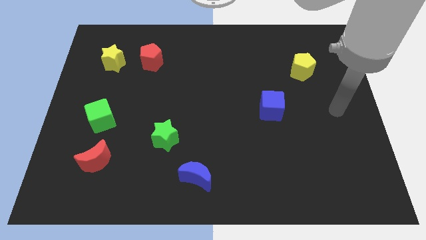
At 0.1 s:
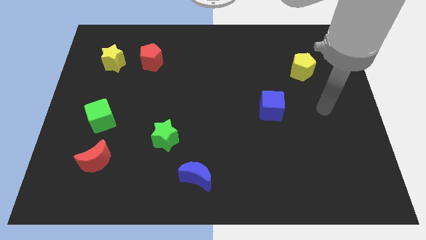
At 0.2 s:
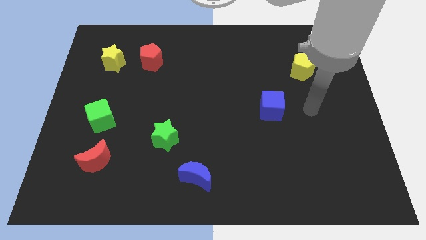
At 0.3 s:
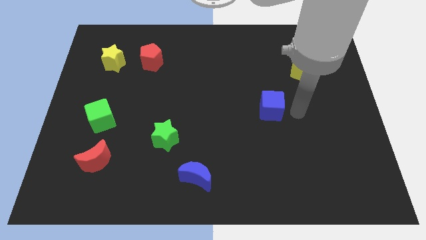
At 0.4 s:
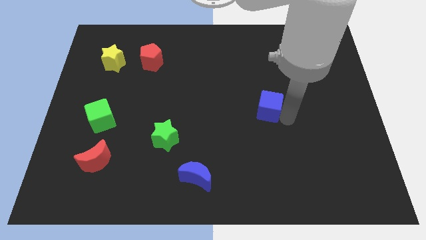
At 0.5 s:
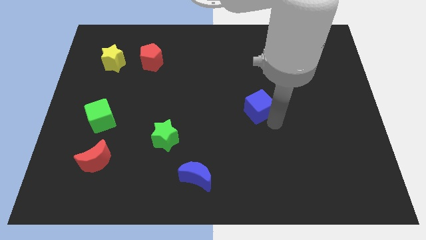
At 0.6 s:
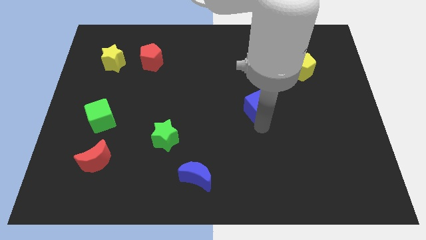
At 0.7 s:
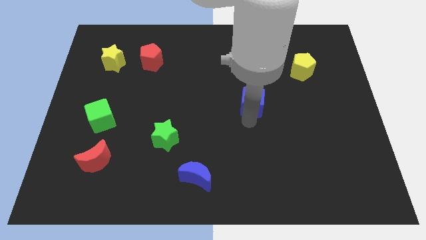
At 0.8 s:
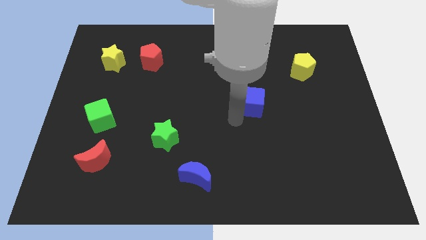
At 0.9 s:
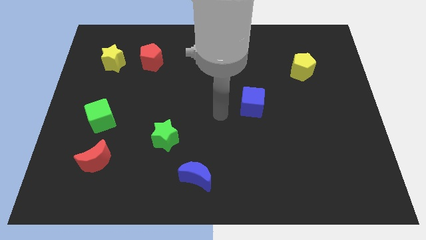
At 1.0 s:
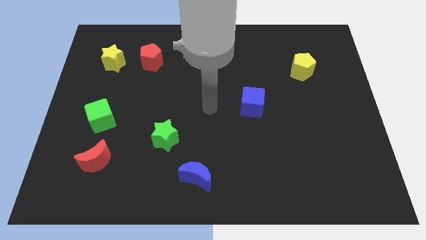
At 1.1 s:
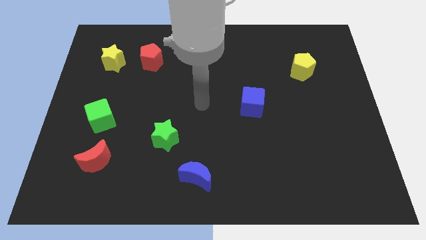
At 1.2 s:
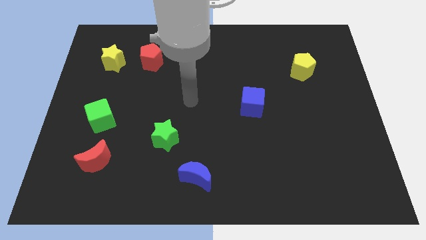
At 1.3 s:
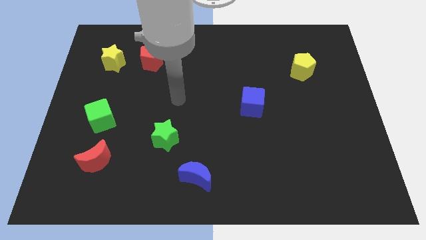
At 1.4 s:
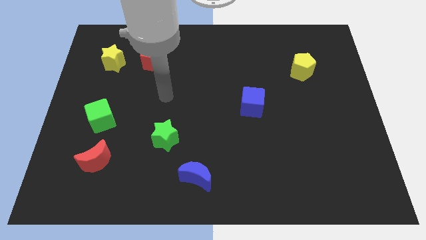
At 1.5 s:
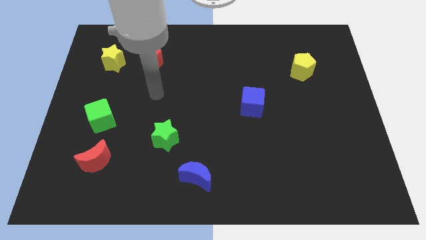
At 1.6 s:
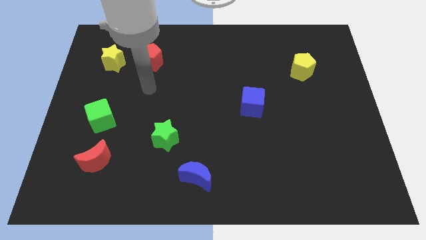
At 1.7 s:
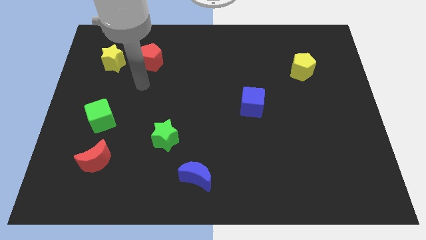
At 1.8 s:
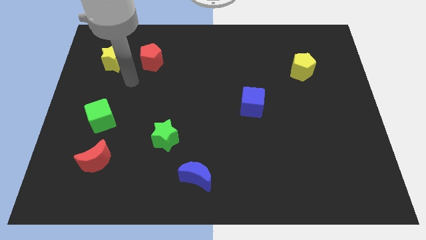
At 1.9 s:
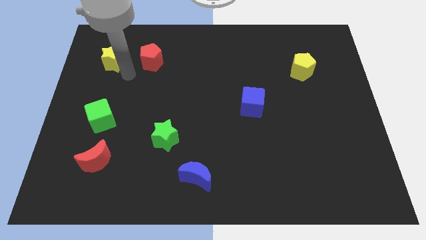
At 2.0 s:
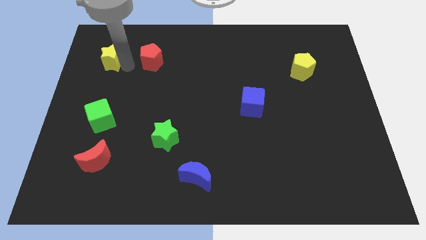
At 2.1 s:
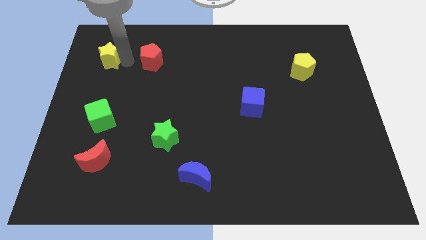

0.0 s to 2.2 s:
pull the red pentagon apart from the yellow star

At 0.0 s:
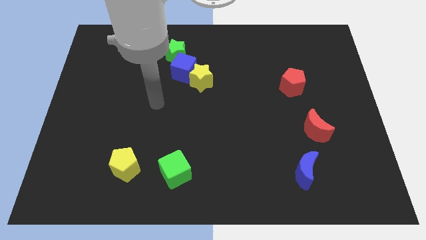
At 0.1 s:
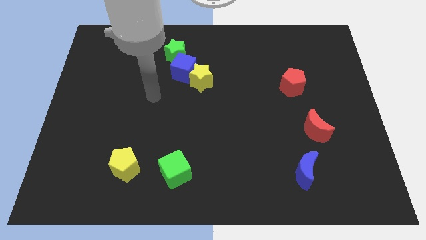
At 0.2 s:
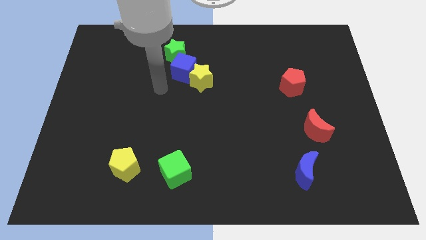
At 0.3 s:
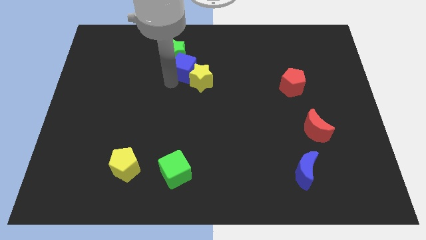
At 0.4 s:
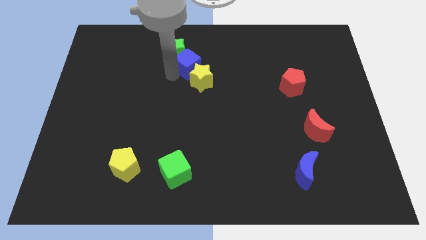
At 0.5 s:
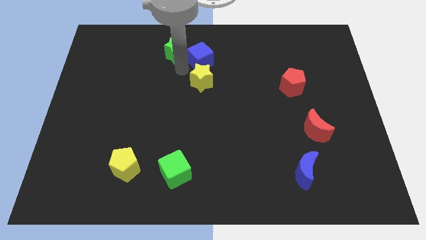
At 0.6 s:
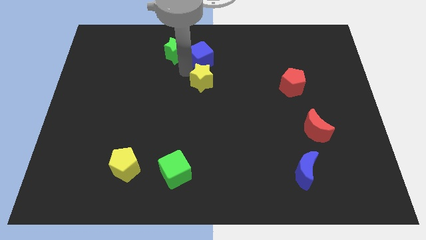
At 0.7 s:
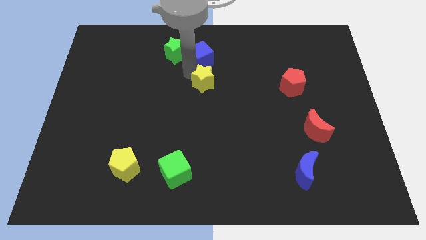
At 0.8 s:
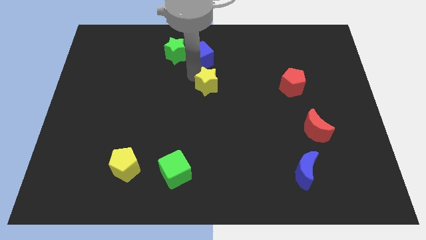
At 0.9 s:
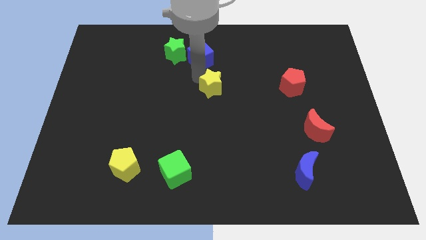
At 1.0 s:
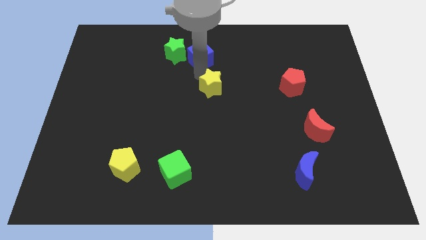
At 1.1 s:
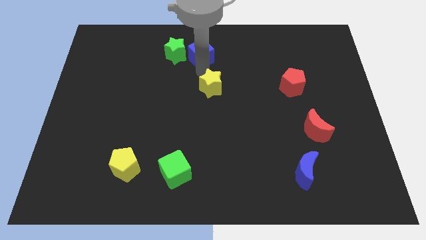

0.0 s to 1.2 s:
pull the yellow star apart from the blue cube

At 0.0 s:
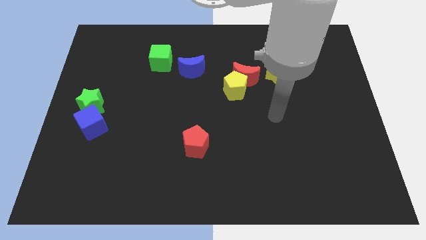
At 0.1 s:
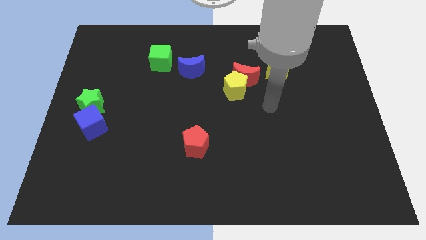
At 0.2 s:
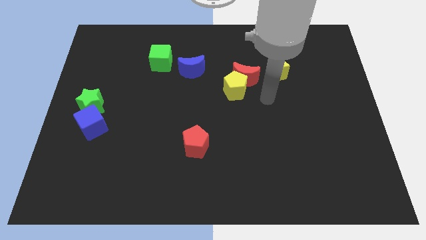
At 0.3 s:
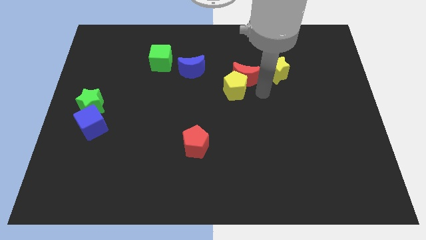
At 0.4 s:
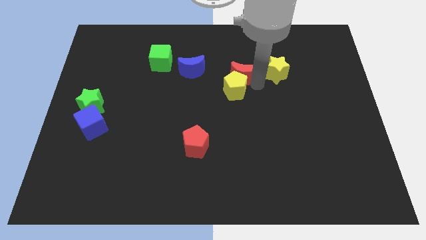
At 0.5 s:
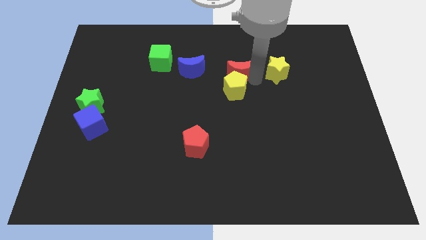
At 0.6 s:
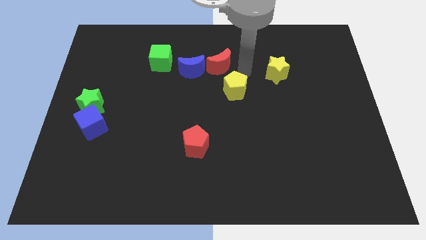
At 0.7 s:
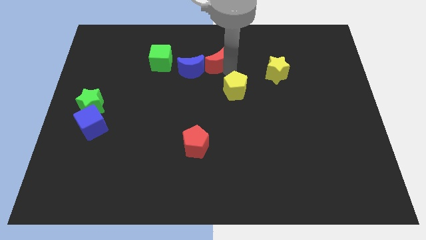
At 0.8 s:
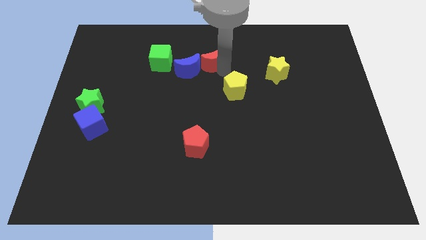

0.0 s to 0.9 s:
move the yellow pentagon away from the red moon

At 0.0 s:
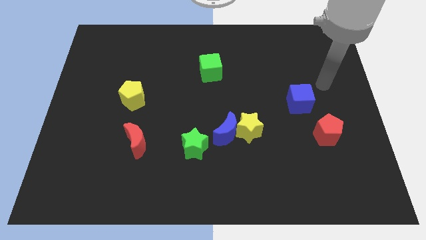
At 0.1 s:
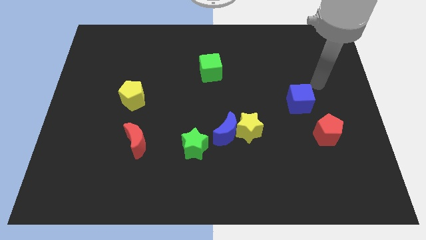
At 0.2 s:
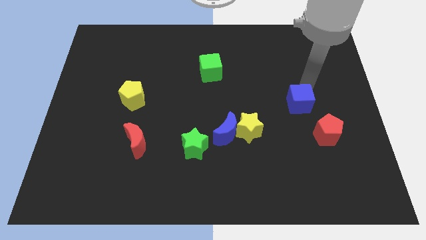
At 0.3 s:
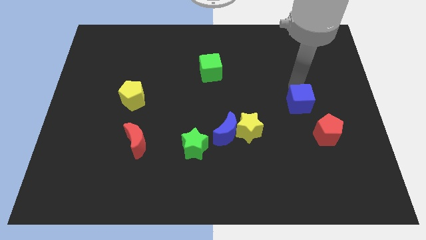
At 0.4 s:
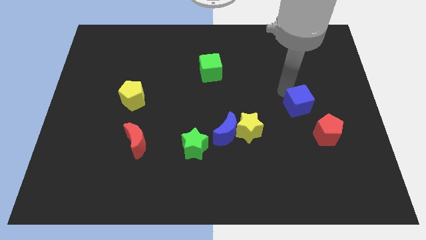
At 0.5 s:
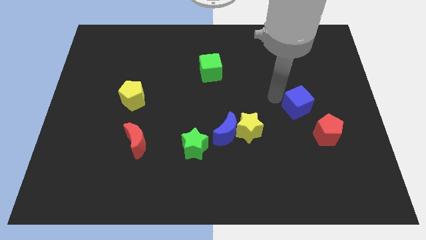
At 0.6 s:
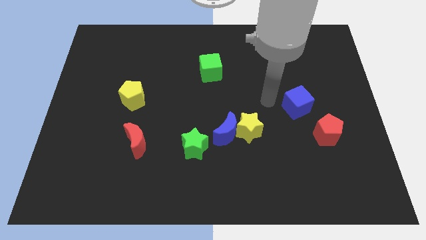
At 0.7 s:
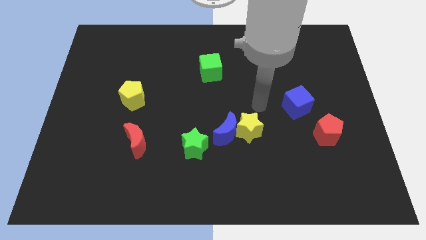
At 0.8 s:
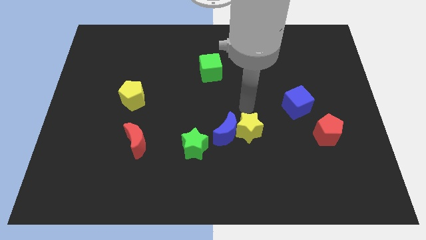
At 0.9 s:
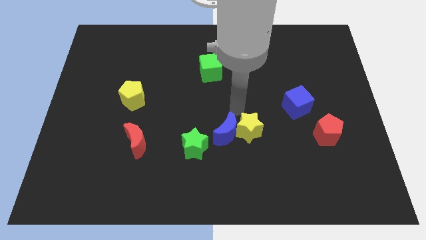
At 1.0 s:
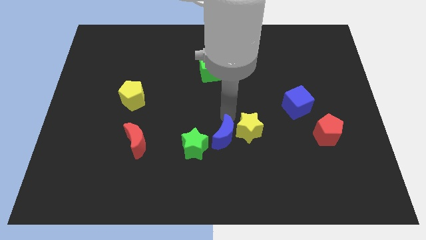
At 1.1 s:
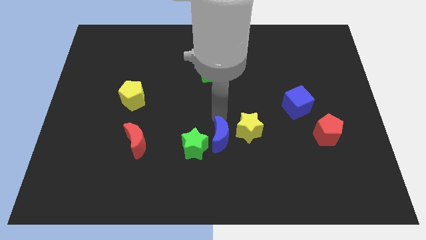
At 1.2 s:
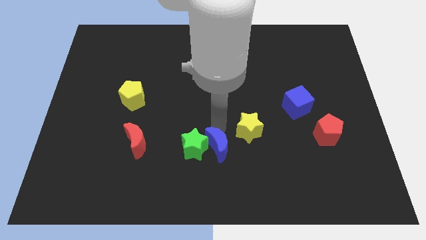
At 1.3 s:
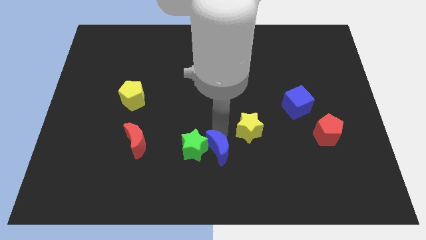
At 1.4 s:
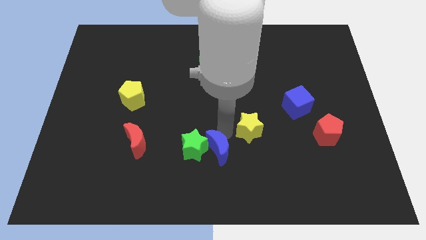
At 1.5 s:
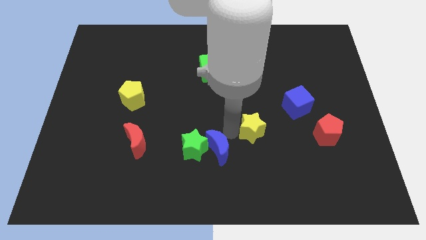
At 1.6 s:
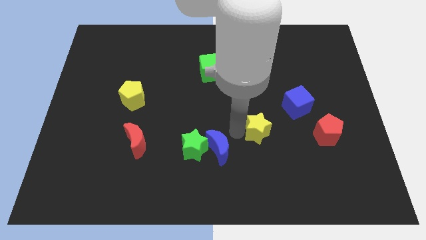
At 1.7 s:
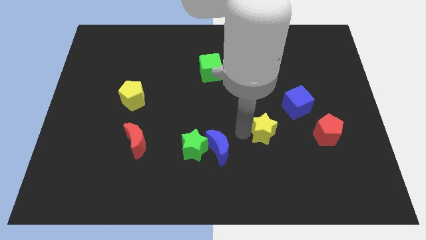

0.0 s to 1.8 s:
move the yellow star away from the blue moon

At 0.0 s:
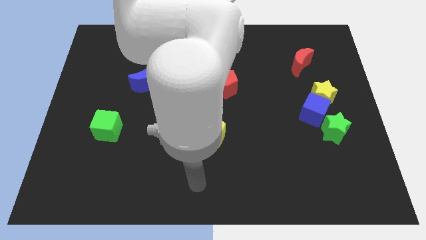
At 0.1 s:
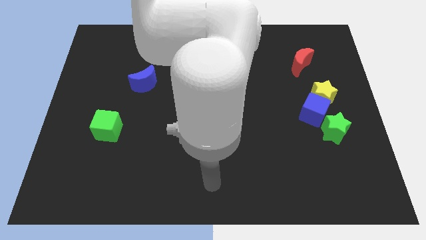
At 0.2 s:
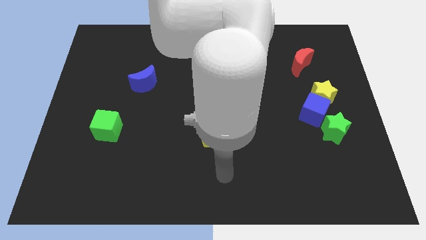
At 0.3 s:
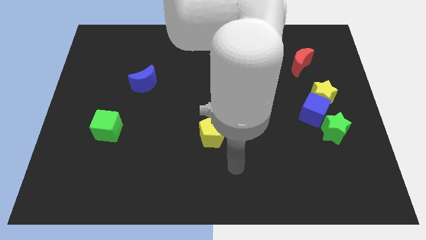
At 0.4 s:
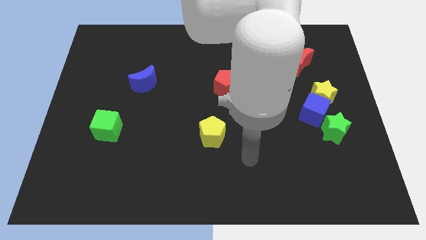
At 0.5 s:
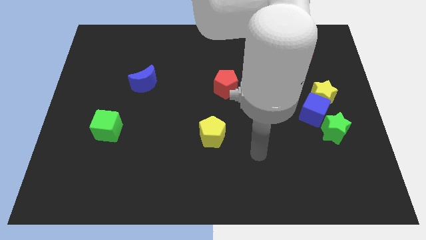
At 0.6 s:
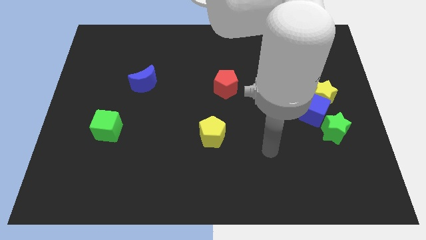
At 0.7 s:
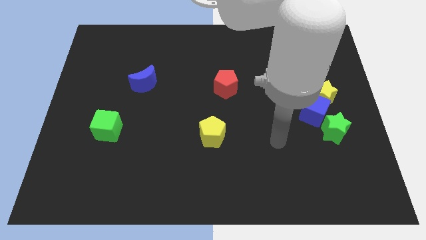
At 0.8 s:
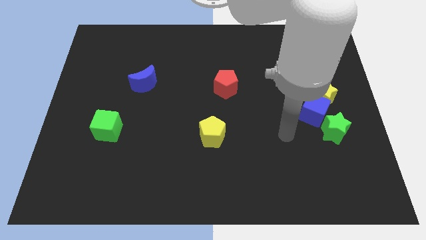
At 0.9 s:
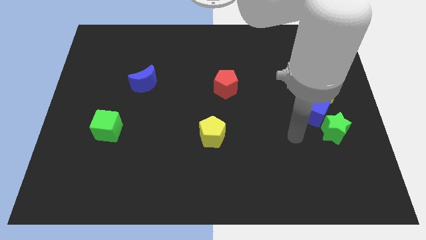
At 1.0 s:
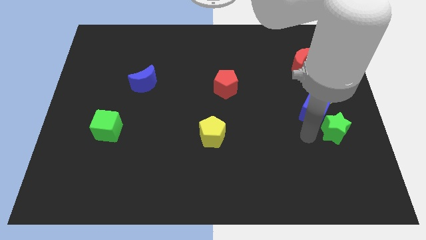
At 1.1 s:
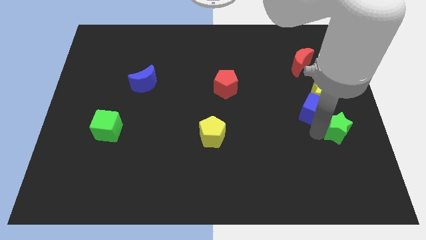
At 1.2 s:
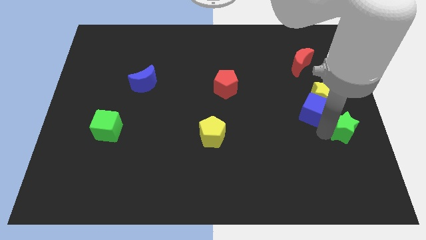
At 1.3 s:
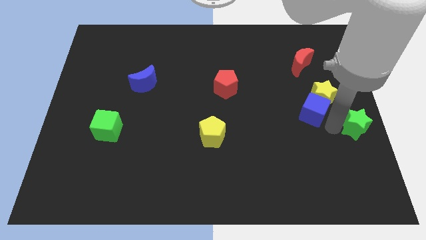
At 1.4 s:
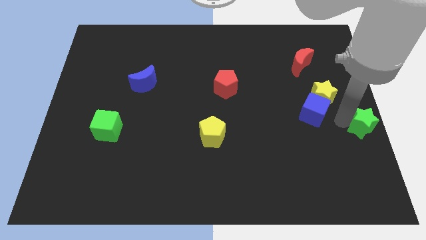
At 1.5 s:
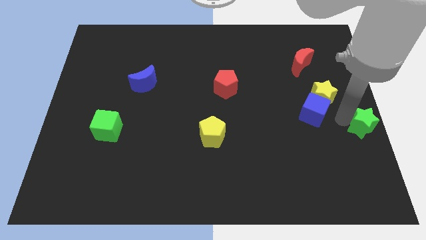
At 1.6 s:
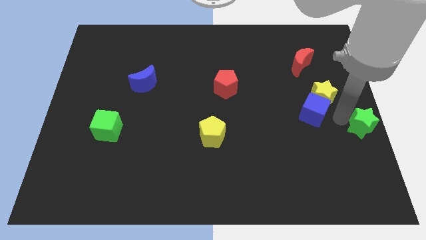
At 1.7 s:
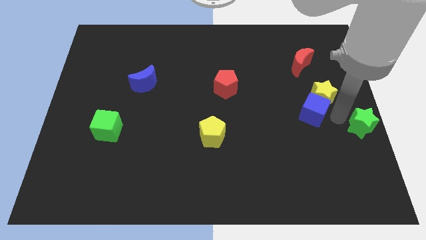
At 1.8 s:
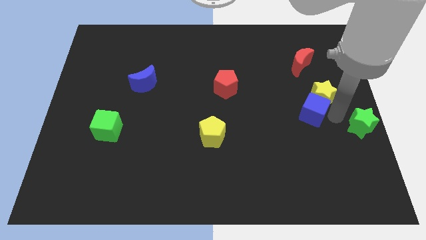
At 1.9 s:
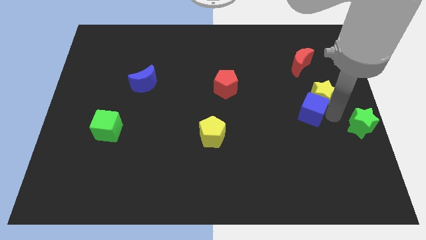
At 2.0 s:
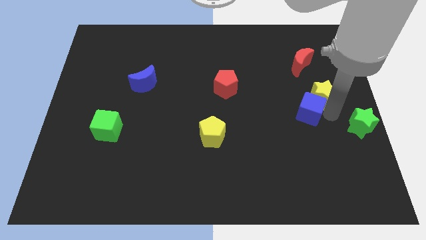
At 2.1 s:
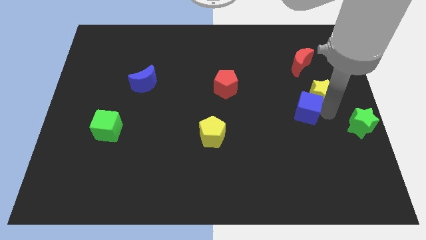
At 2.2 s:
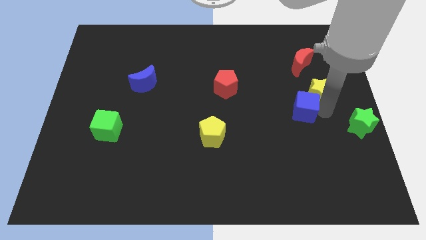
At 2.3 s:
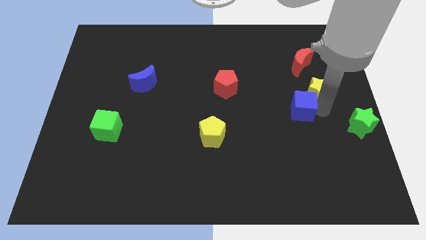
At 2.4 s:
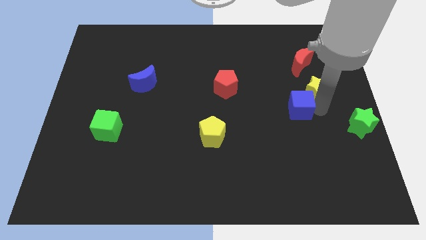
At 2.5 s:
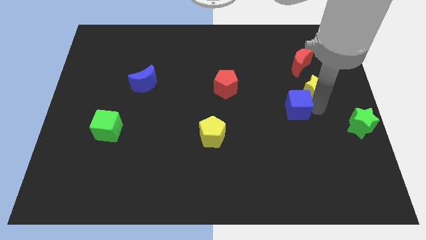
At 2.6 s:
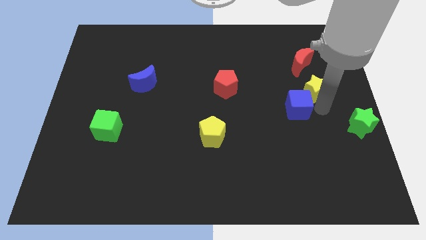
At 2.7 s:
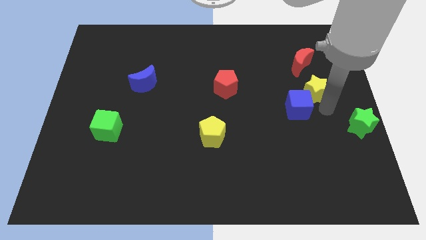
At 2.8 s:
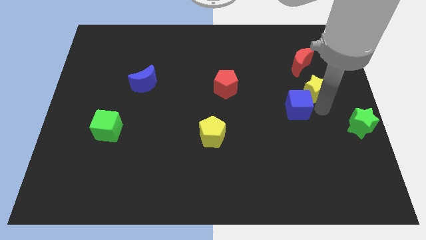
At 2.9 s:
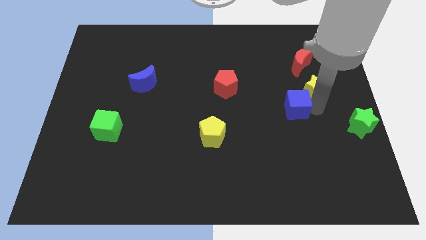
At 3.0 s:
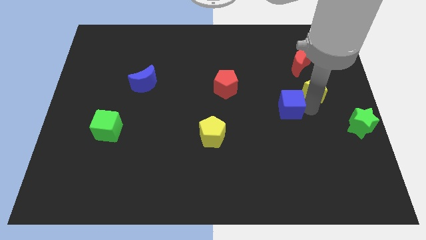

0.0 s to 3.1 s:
pull the blue cube apart from the yellow star and green star

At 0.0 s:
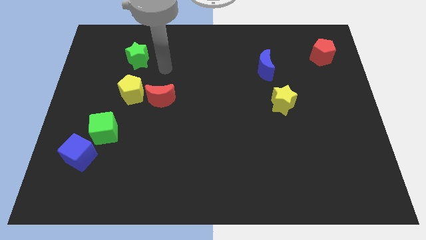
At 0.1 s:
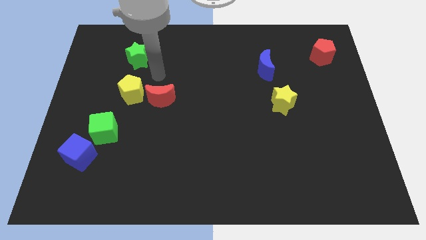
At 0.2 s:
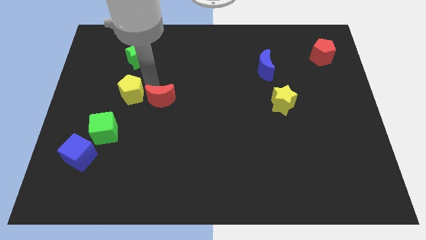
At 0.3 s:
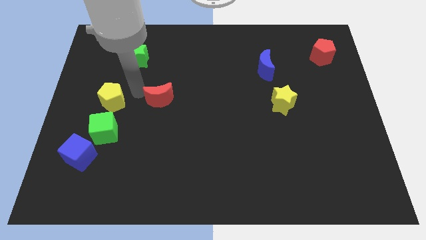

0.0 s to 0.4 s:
separate the red moon from the yellow pentagon
